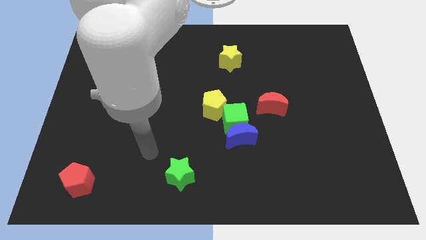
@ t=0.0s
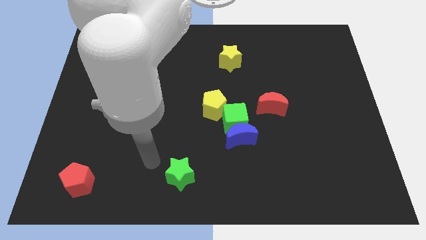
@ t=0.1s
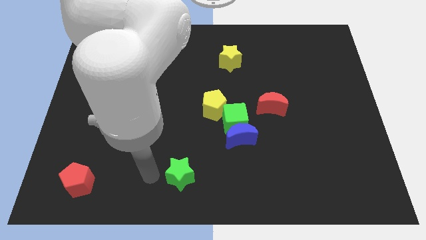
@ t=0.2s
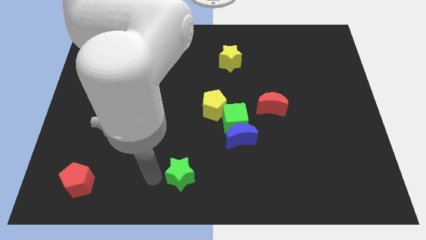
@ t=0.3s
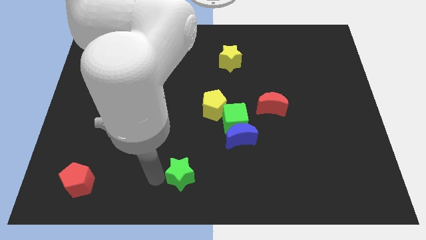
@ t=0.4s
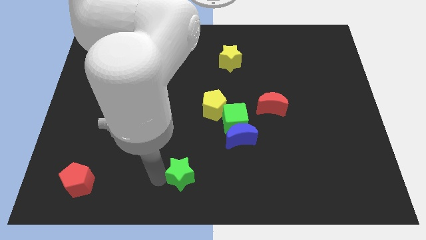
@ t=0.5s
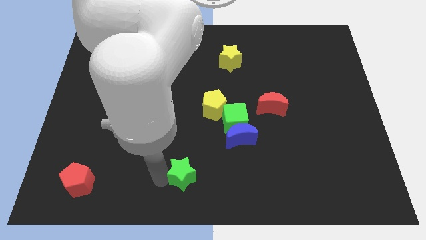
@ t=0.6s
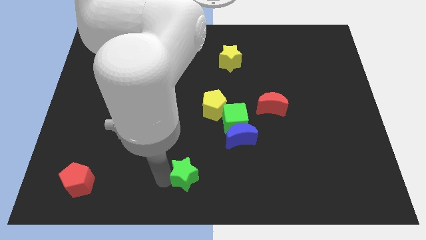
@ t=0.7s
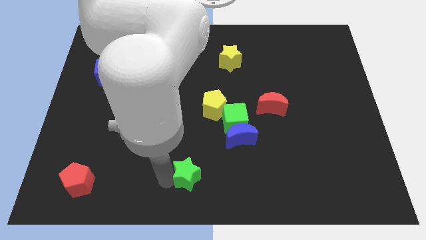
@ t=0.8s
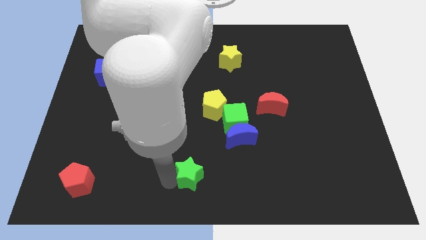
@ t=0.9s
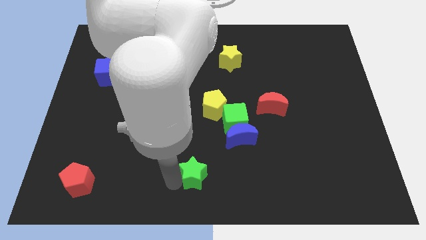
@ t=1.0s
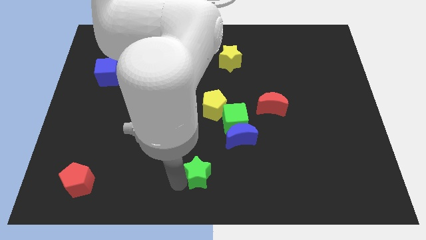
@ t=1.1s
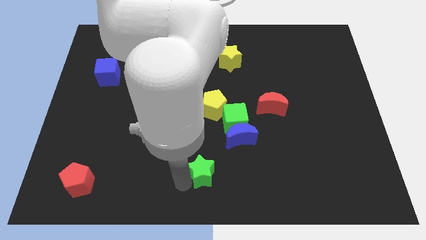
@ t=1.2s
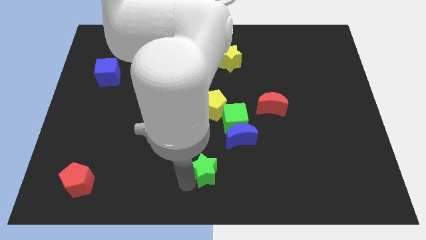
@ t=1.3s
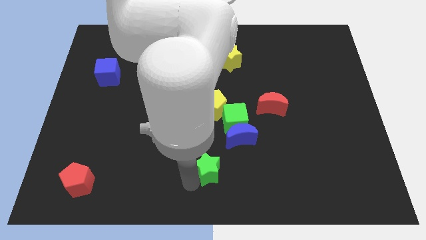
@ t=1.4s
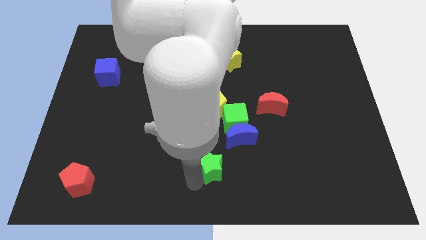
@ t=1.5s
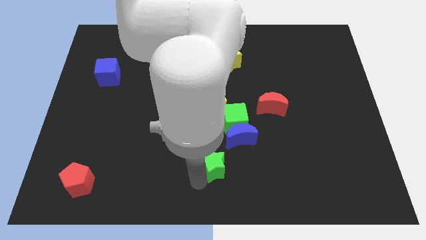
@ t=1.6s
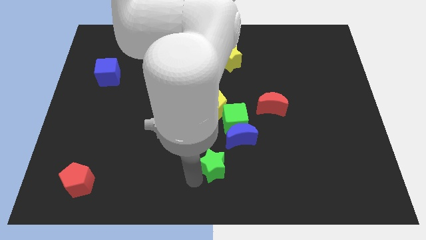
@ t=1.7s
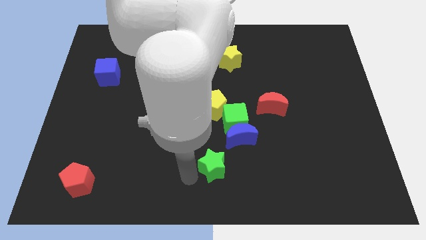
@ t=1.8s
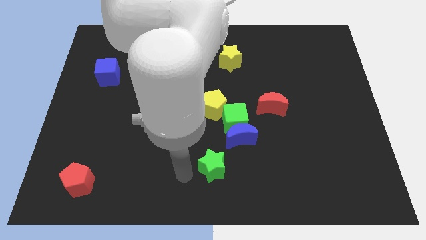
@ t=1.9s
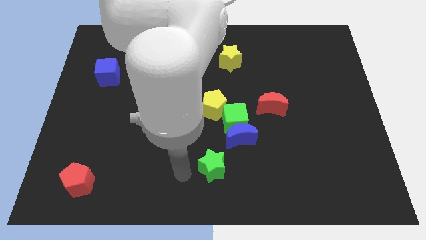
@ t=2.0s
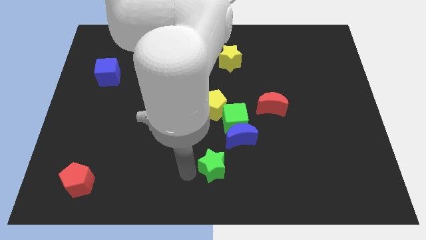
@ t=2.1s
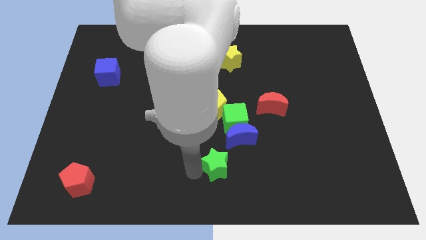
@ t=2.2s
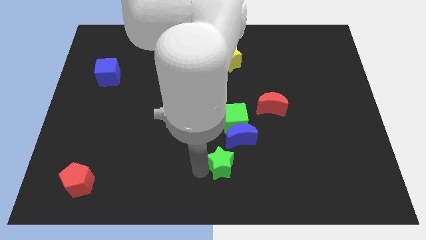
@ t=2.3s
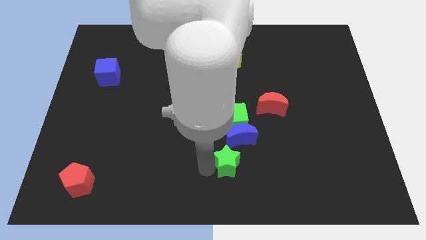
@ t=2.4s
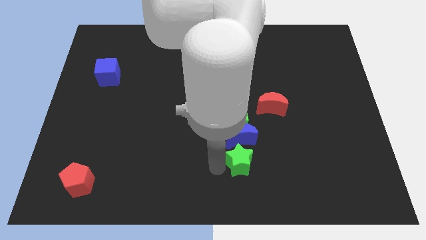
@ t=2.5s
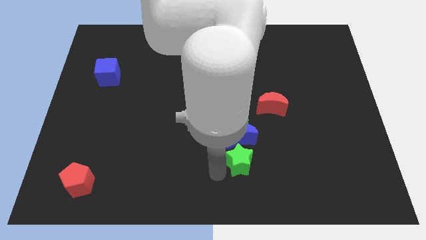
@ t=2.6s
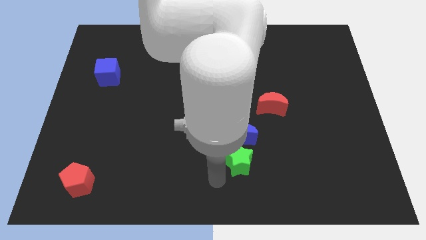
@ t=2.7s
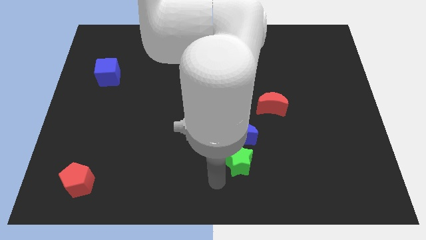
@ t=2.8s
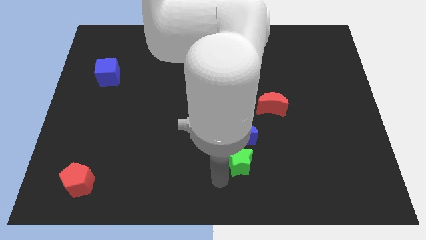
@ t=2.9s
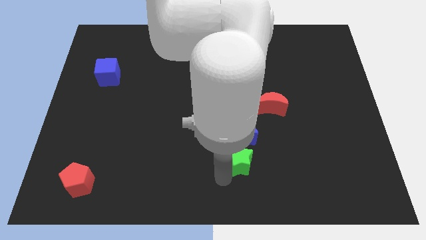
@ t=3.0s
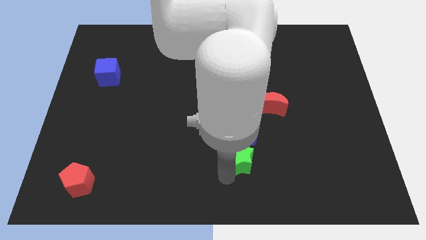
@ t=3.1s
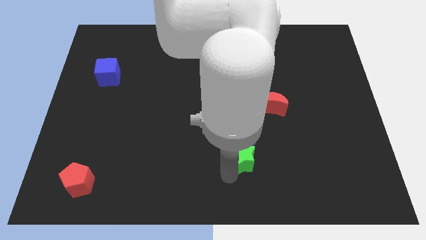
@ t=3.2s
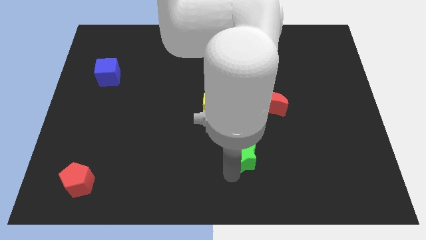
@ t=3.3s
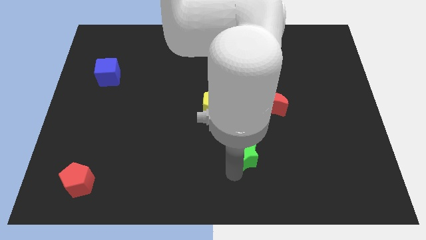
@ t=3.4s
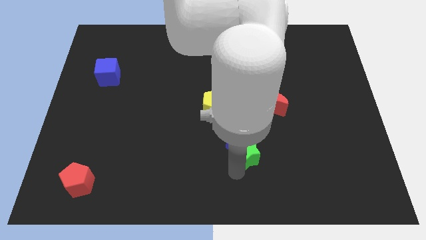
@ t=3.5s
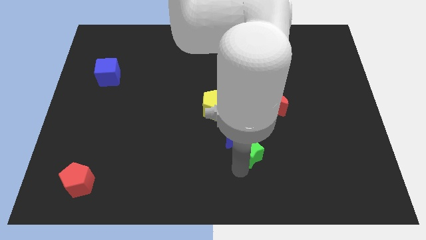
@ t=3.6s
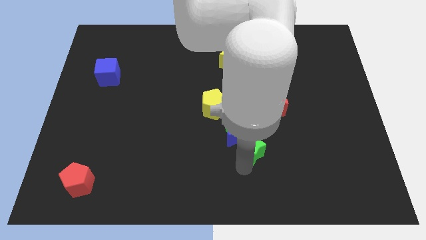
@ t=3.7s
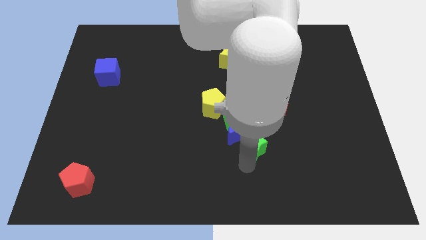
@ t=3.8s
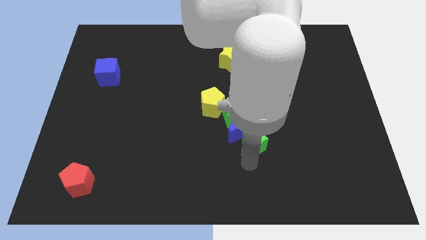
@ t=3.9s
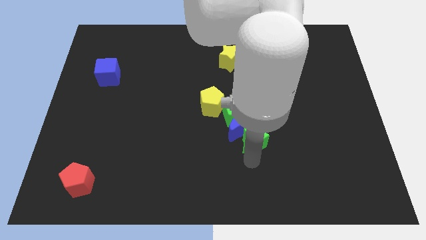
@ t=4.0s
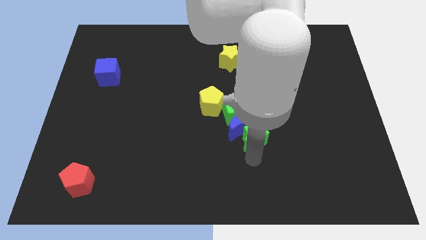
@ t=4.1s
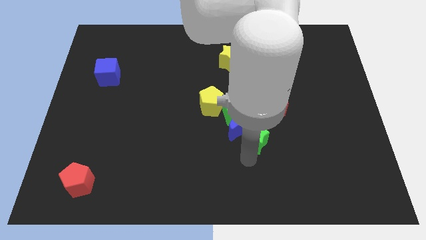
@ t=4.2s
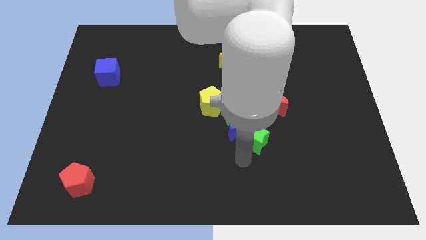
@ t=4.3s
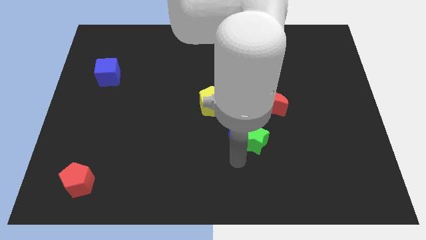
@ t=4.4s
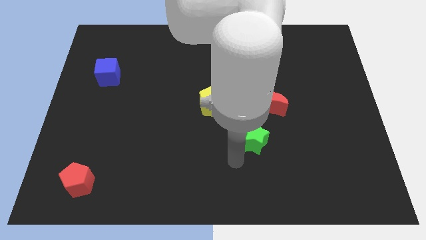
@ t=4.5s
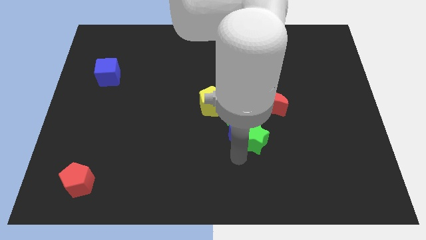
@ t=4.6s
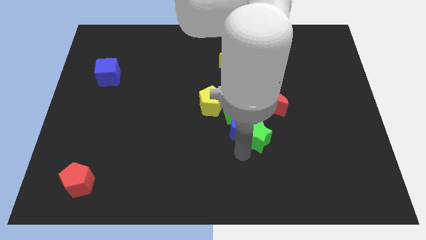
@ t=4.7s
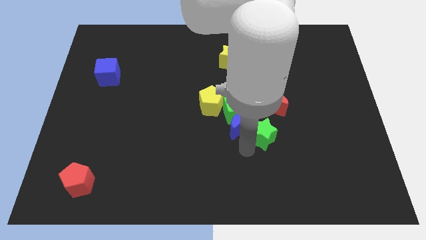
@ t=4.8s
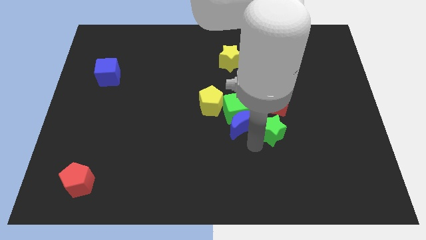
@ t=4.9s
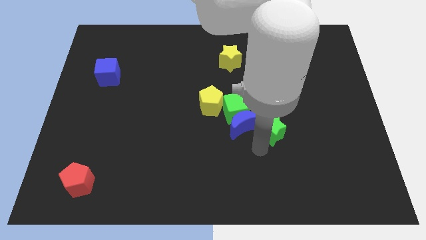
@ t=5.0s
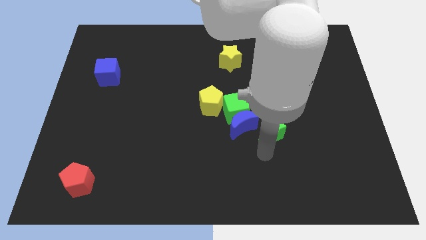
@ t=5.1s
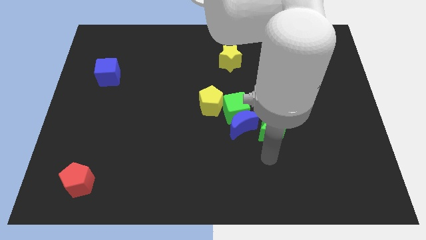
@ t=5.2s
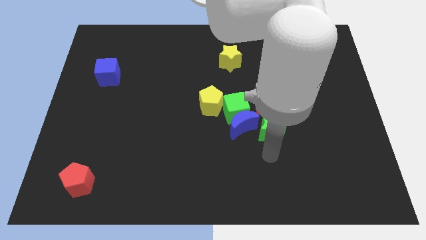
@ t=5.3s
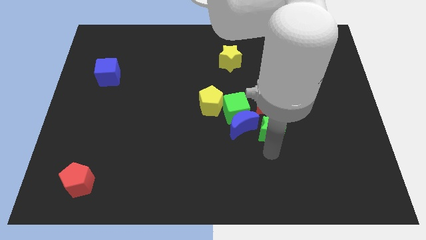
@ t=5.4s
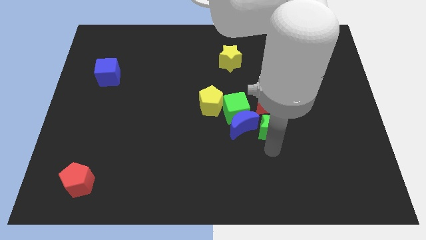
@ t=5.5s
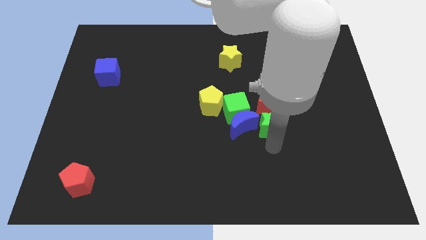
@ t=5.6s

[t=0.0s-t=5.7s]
move the green star close to the red moon

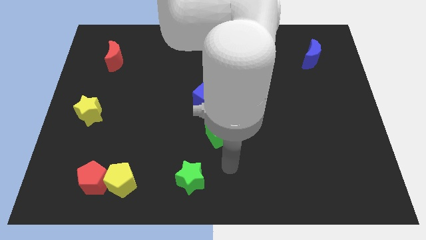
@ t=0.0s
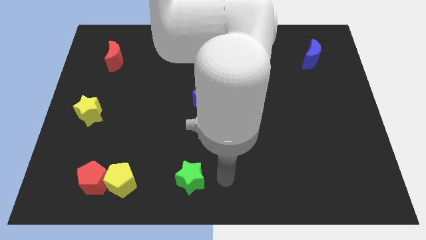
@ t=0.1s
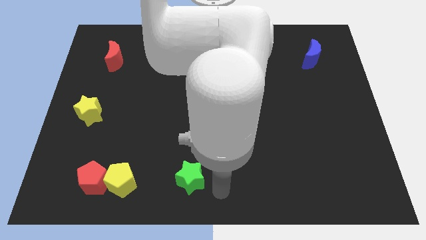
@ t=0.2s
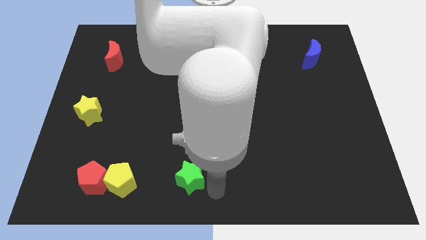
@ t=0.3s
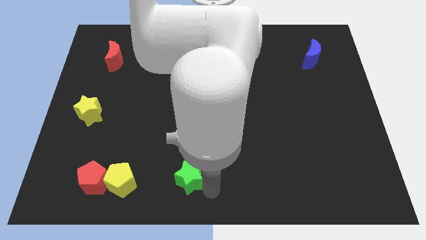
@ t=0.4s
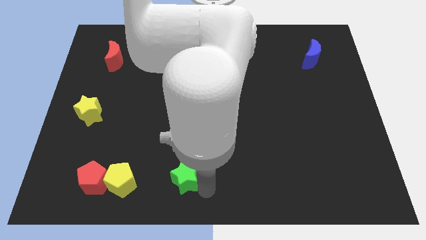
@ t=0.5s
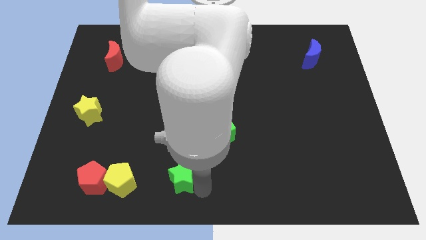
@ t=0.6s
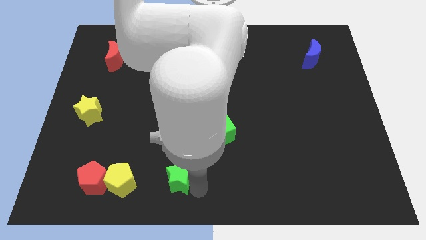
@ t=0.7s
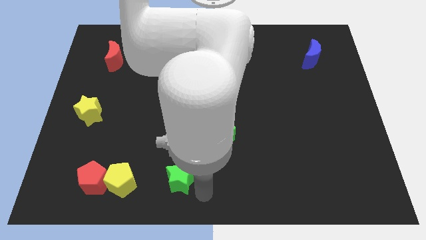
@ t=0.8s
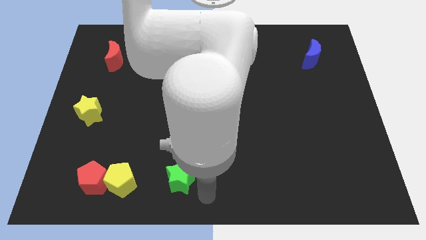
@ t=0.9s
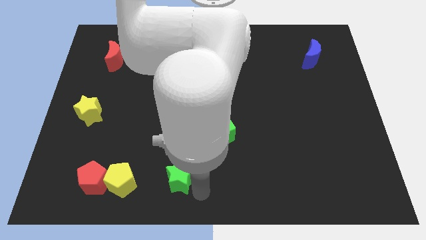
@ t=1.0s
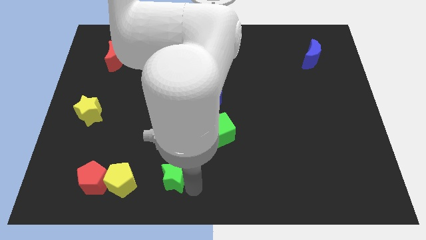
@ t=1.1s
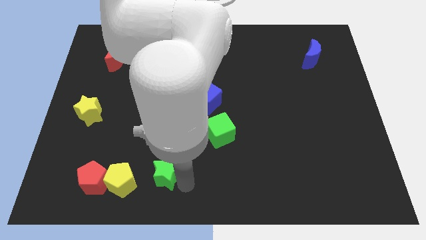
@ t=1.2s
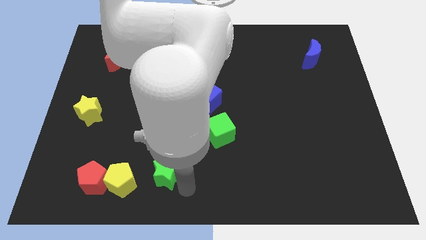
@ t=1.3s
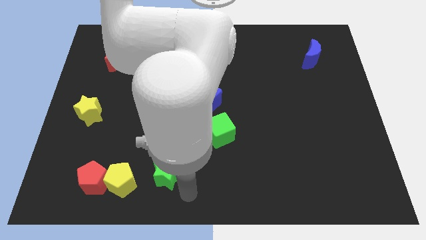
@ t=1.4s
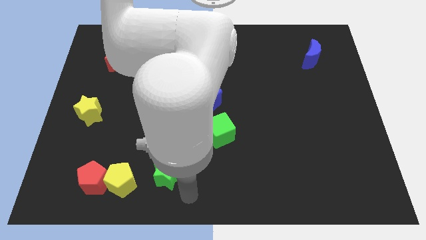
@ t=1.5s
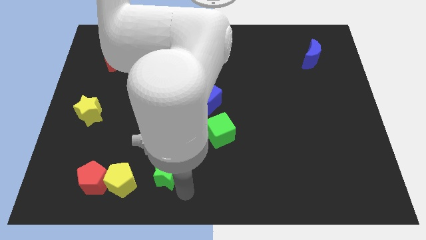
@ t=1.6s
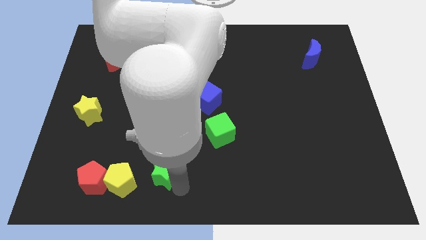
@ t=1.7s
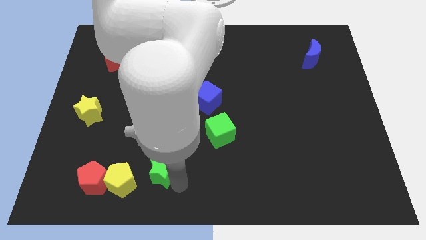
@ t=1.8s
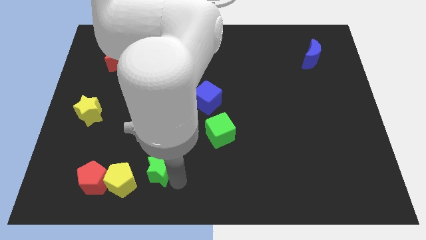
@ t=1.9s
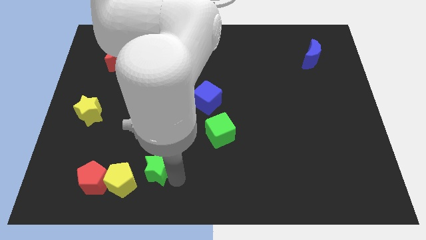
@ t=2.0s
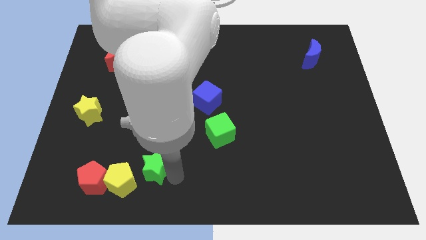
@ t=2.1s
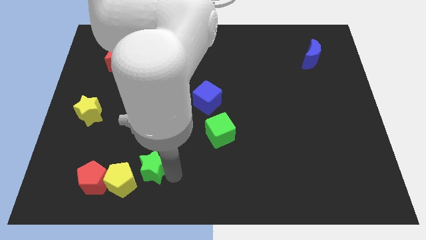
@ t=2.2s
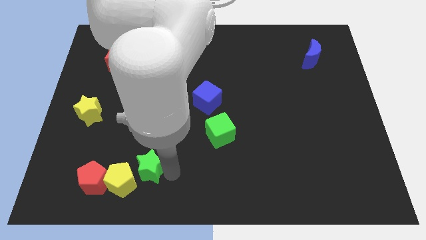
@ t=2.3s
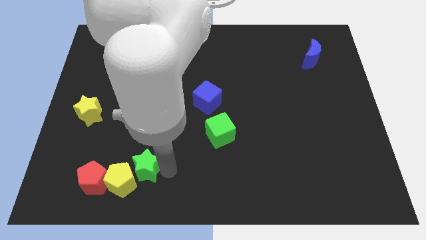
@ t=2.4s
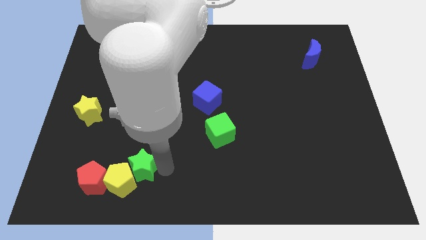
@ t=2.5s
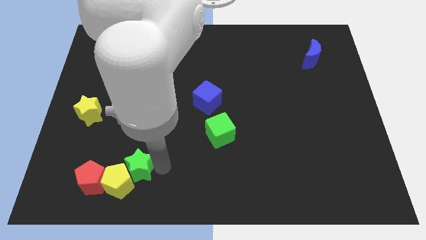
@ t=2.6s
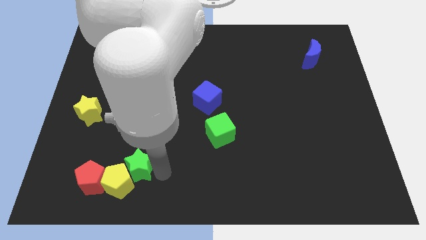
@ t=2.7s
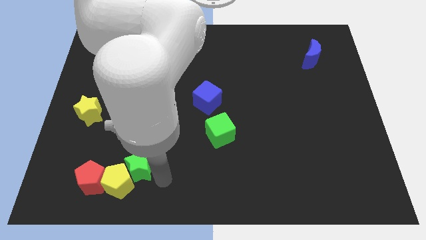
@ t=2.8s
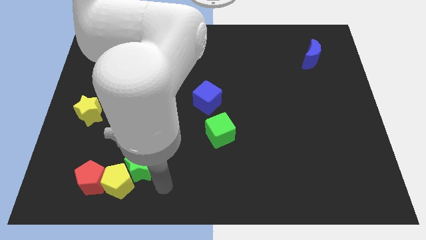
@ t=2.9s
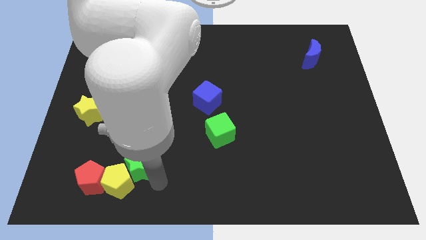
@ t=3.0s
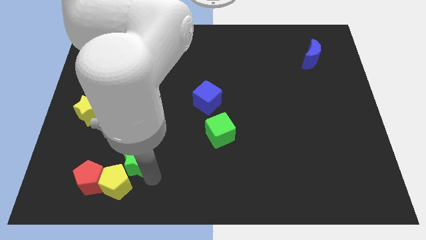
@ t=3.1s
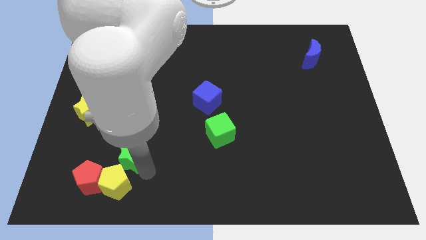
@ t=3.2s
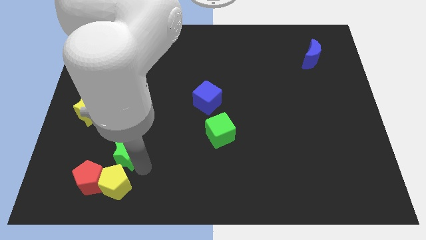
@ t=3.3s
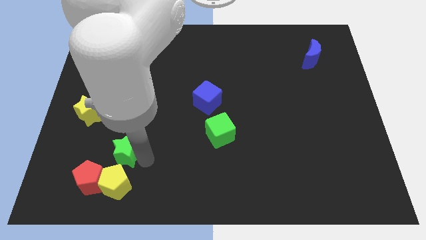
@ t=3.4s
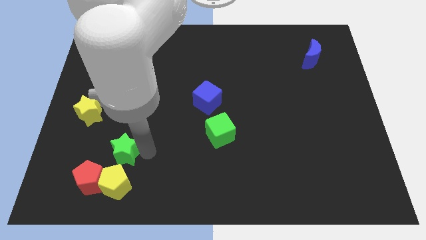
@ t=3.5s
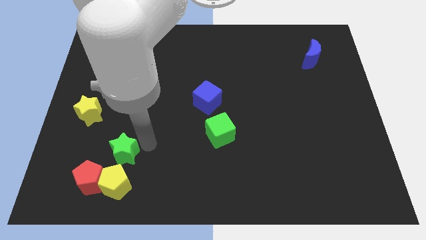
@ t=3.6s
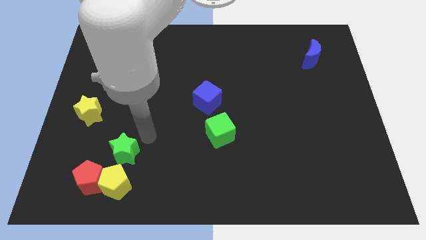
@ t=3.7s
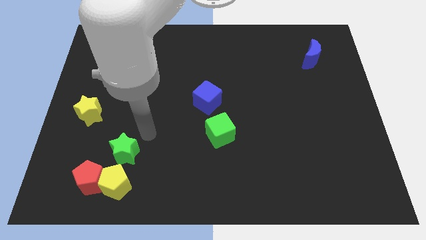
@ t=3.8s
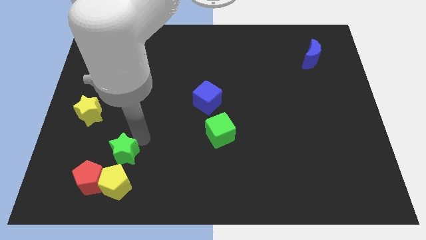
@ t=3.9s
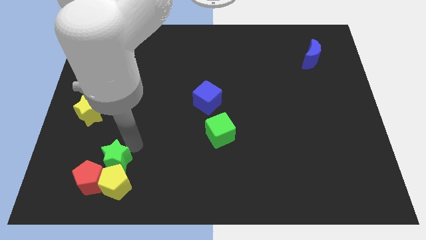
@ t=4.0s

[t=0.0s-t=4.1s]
push the green star to the red pentagon
